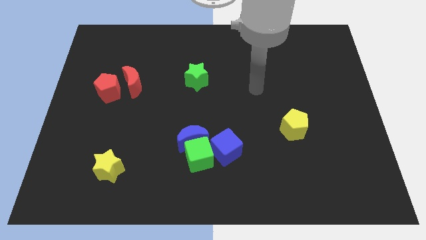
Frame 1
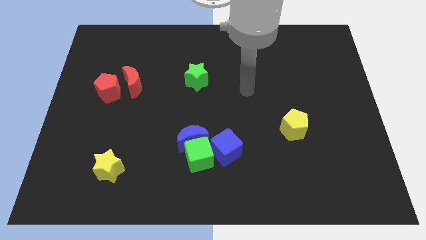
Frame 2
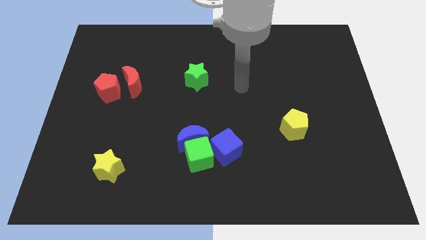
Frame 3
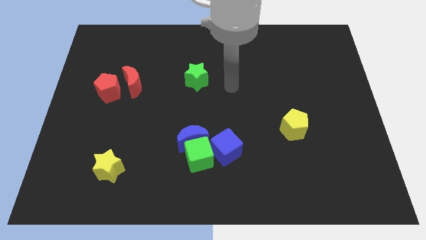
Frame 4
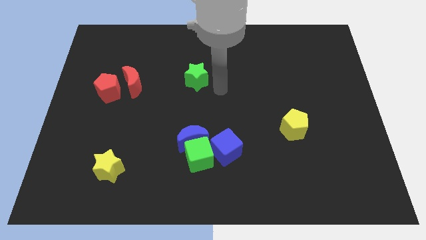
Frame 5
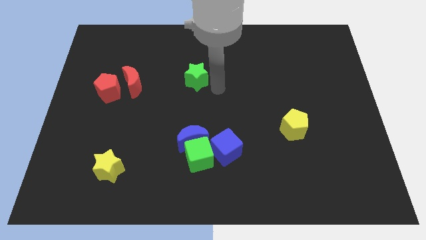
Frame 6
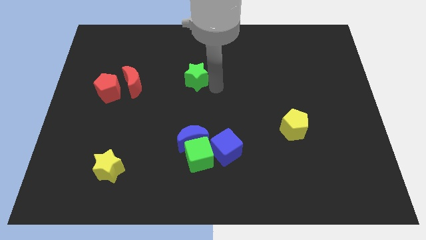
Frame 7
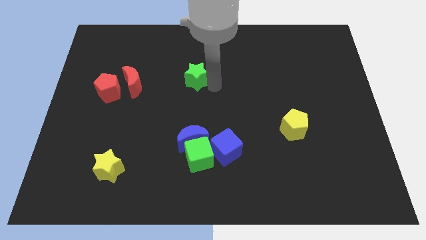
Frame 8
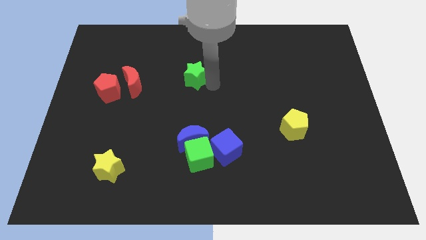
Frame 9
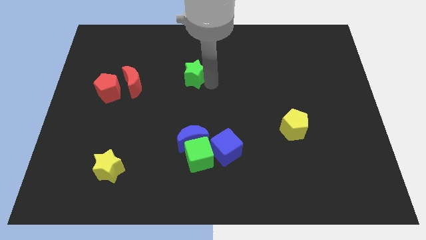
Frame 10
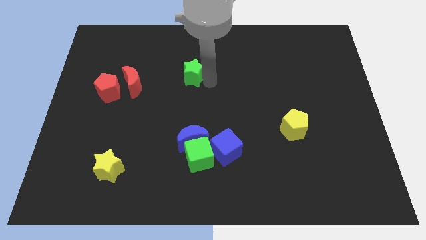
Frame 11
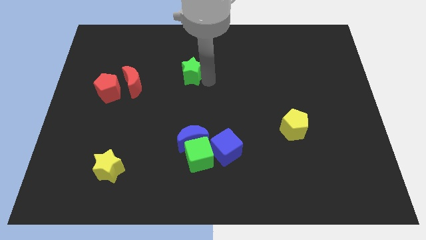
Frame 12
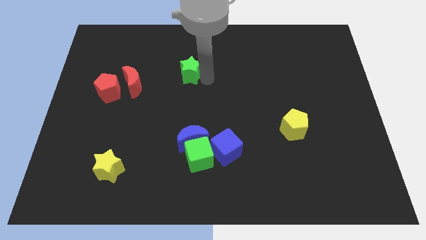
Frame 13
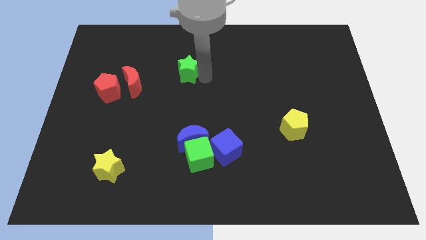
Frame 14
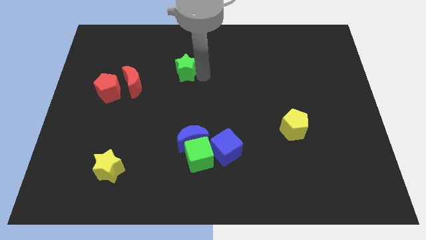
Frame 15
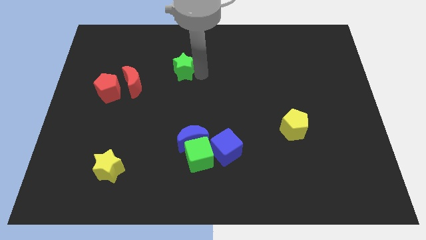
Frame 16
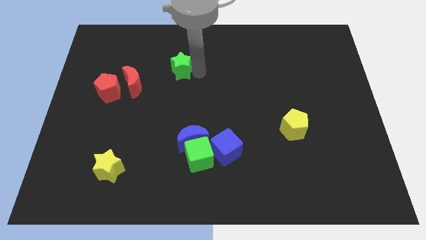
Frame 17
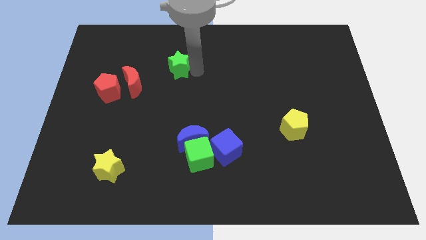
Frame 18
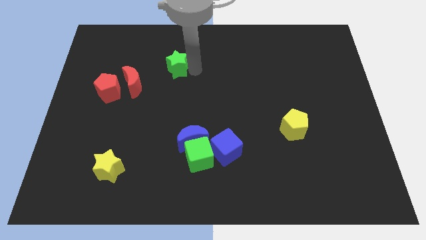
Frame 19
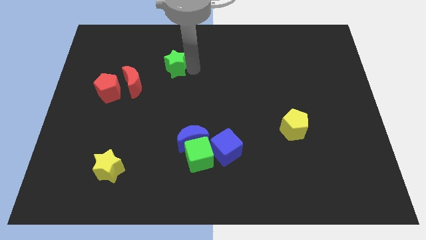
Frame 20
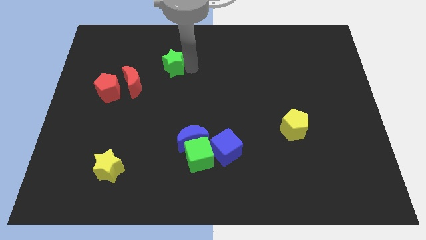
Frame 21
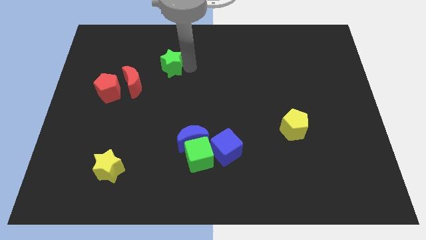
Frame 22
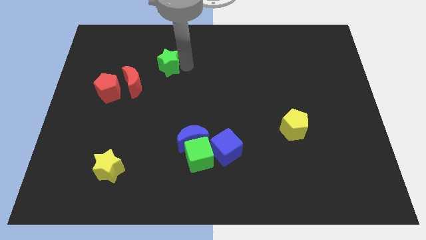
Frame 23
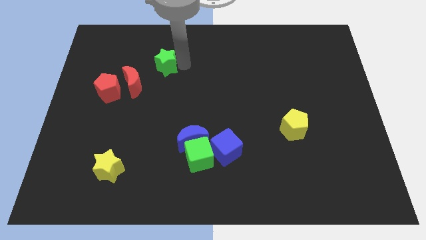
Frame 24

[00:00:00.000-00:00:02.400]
slightly move the green star left

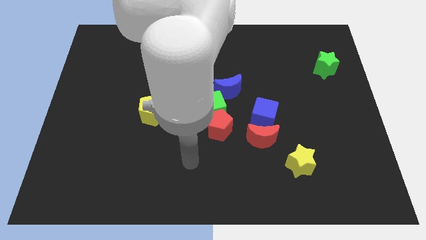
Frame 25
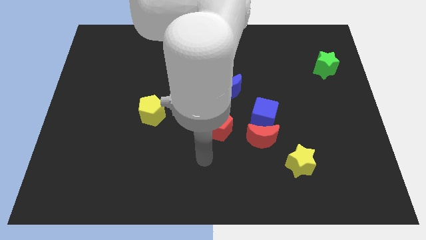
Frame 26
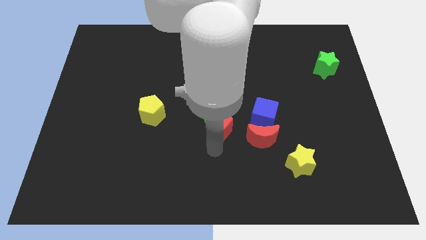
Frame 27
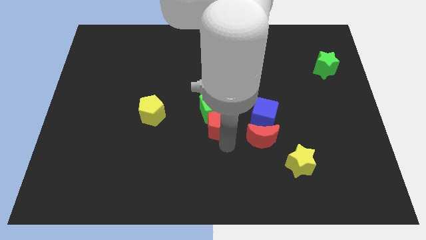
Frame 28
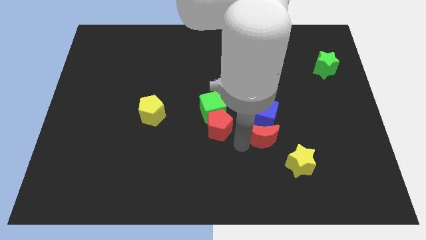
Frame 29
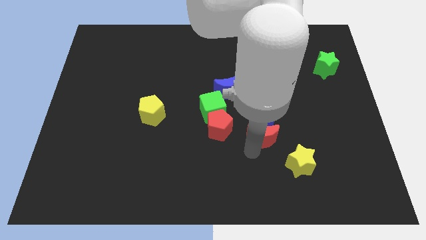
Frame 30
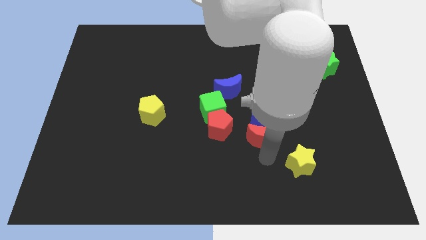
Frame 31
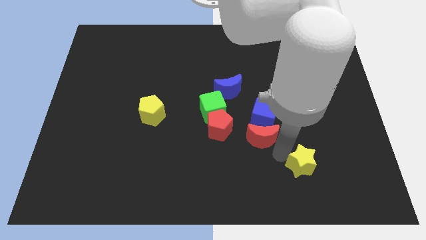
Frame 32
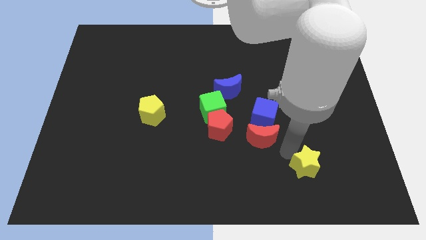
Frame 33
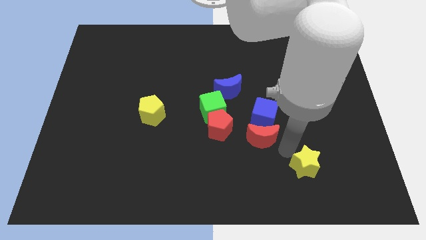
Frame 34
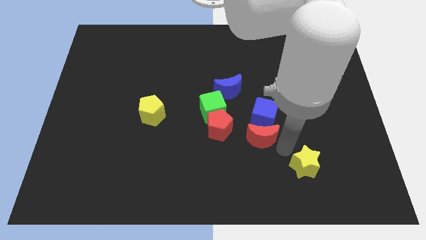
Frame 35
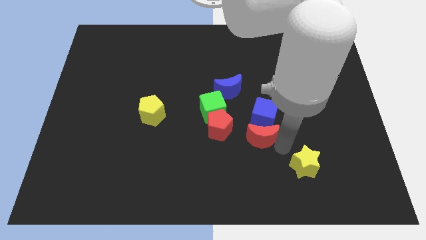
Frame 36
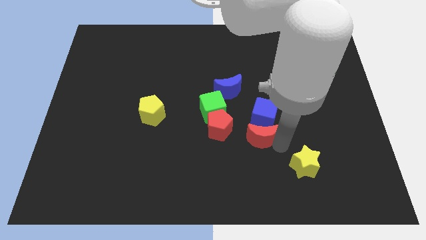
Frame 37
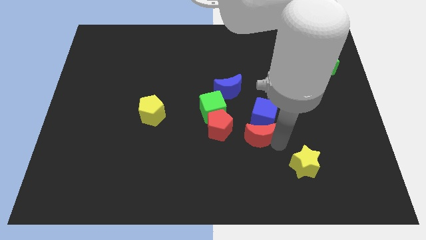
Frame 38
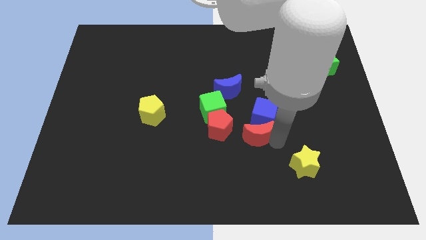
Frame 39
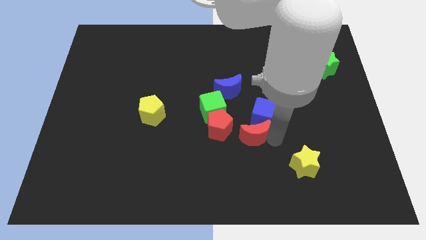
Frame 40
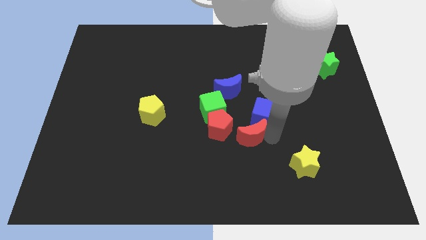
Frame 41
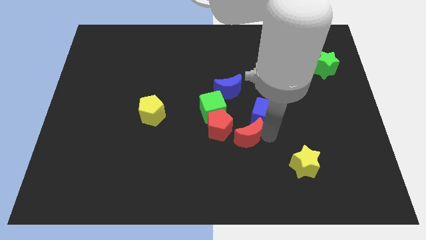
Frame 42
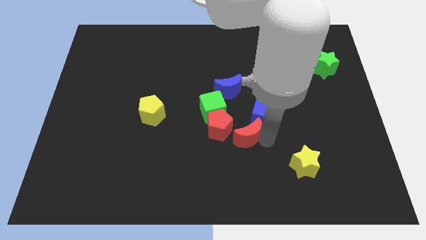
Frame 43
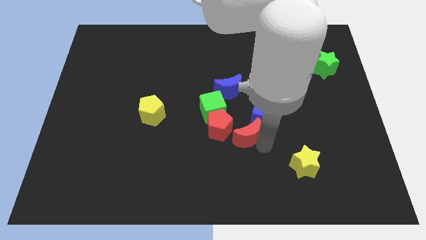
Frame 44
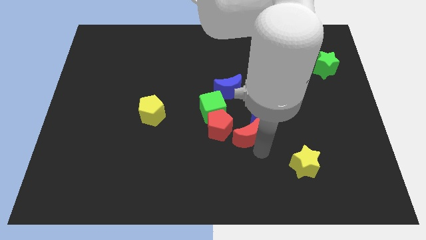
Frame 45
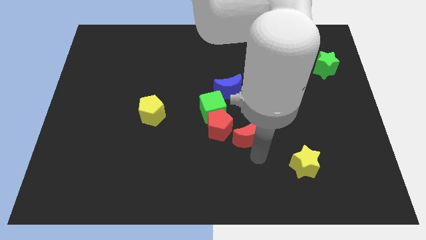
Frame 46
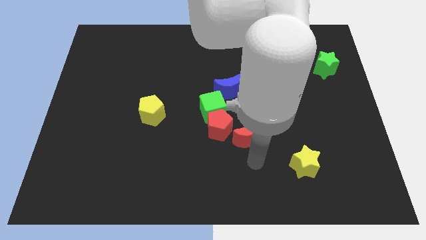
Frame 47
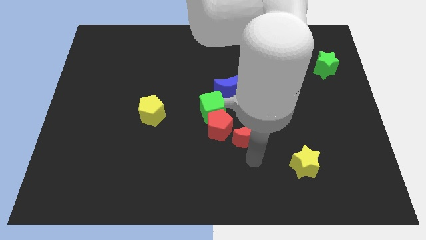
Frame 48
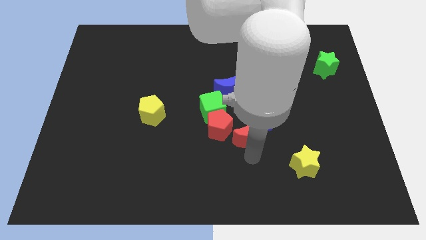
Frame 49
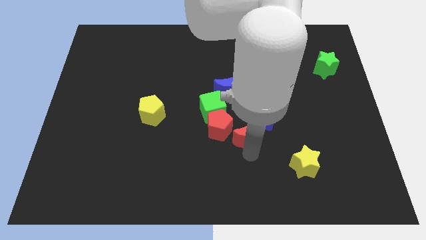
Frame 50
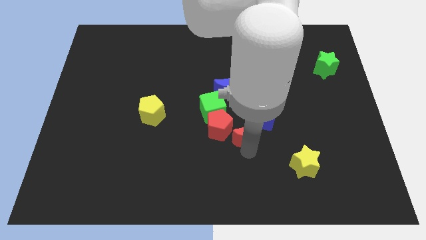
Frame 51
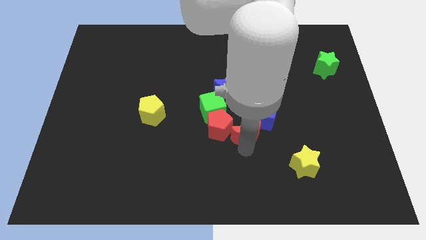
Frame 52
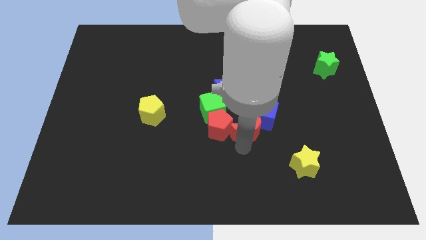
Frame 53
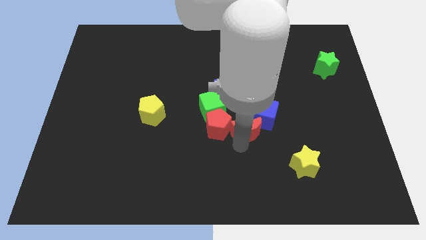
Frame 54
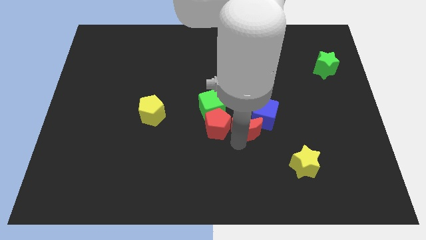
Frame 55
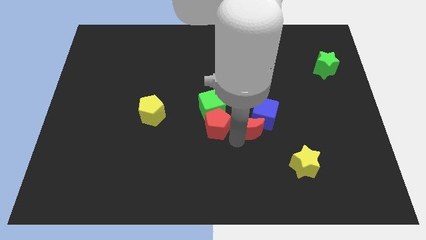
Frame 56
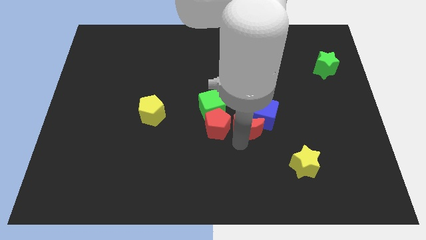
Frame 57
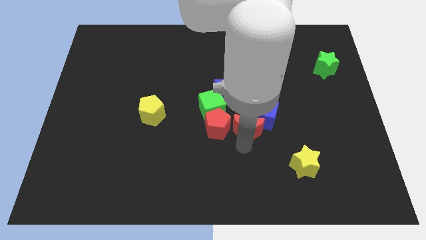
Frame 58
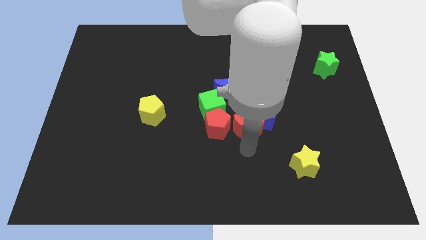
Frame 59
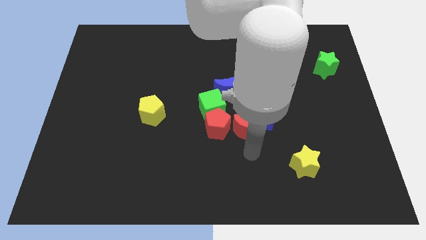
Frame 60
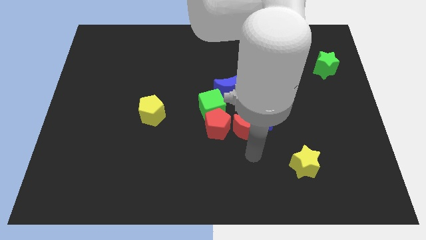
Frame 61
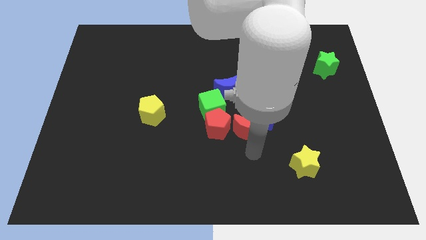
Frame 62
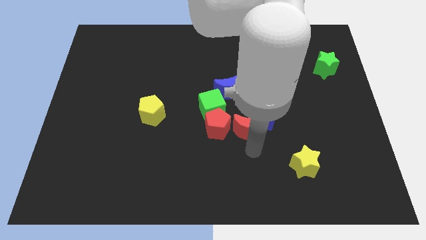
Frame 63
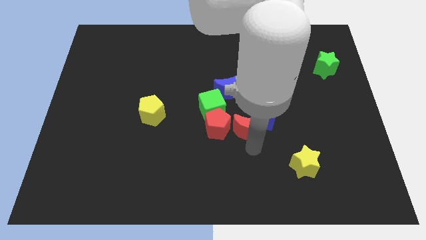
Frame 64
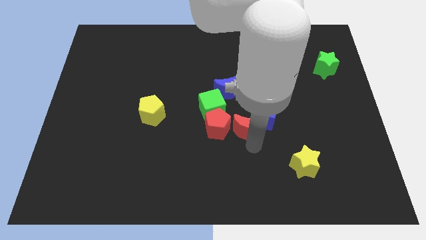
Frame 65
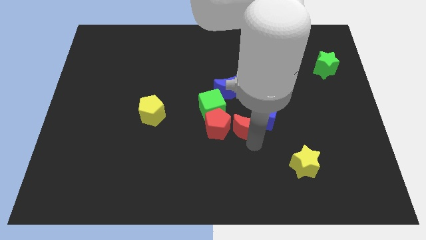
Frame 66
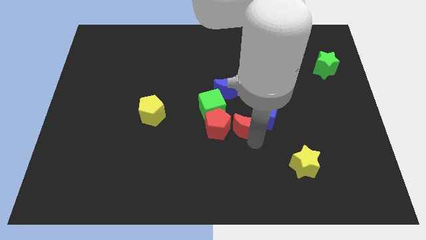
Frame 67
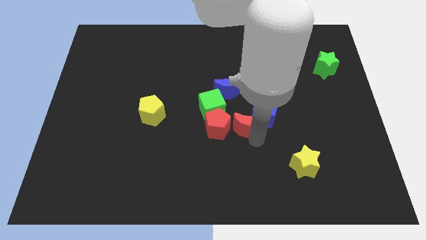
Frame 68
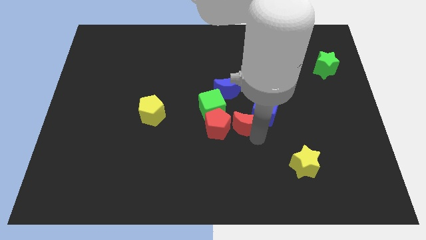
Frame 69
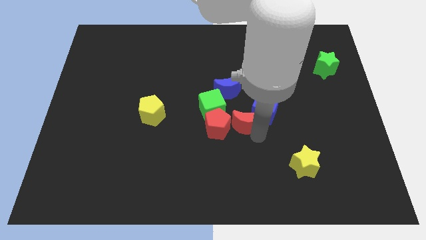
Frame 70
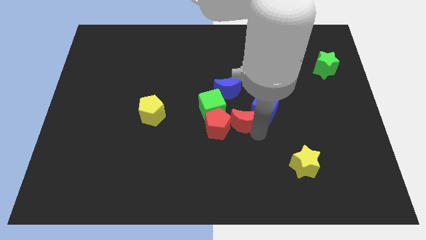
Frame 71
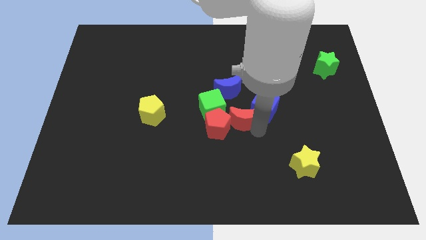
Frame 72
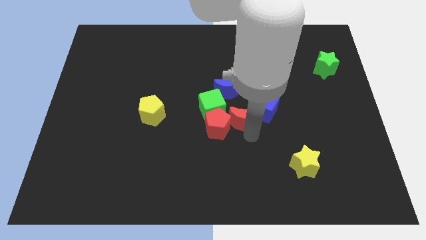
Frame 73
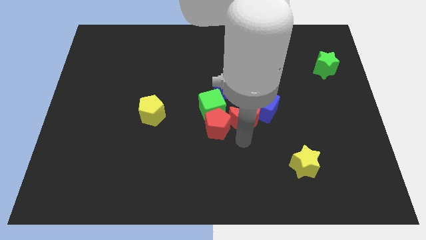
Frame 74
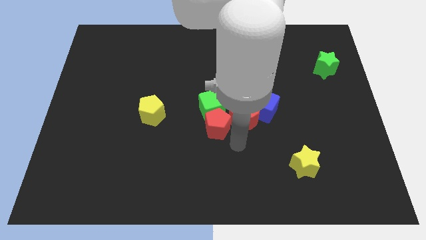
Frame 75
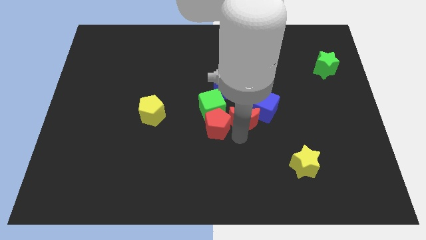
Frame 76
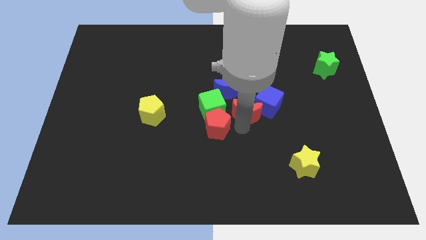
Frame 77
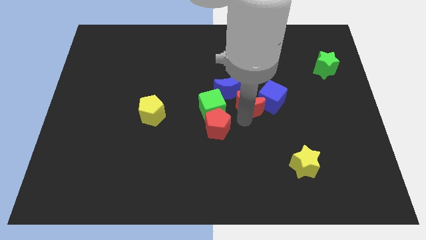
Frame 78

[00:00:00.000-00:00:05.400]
push the red moon somewhat upwards

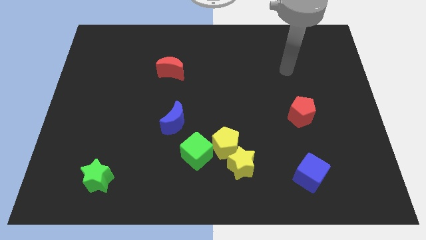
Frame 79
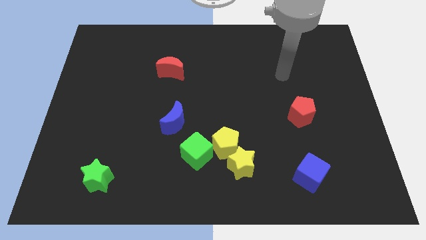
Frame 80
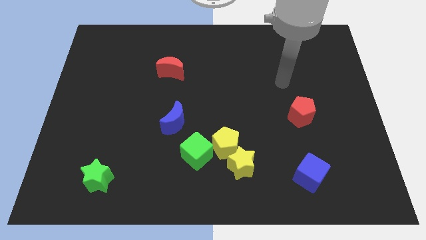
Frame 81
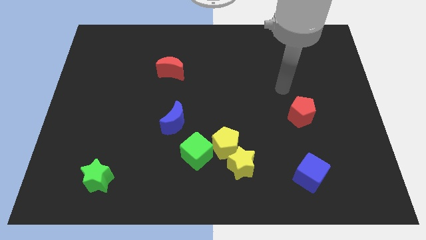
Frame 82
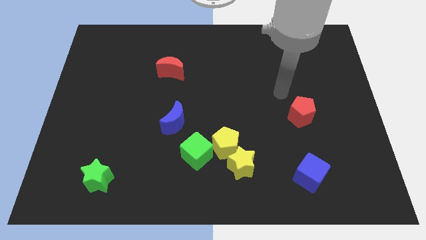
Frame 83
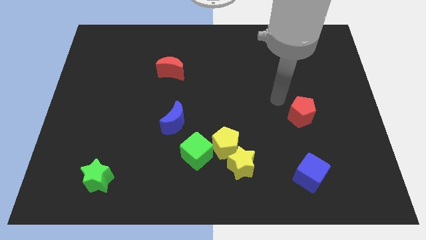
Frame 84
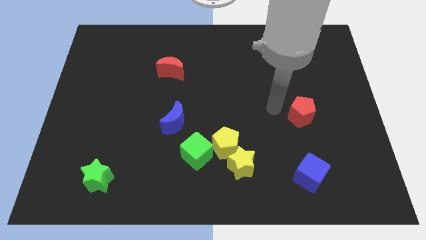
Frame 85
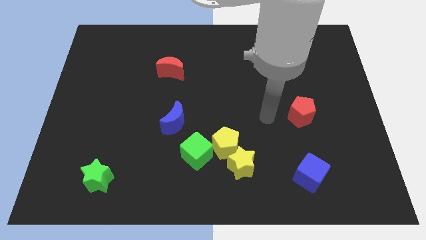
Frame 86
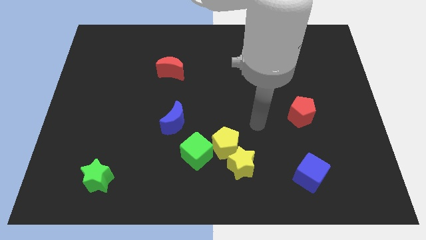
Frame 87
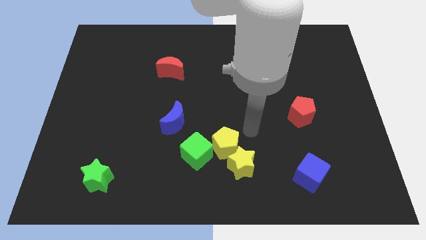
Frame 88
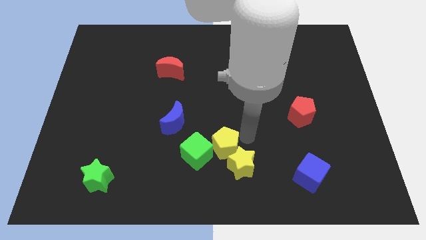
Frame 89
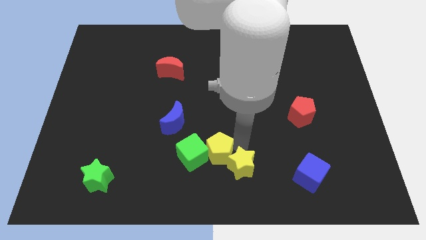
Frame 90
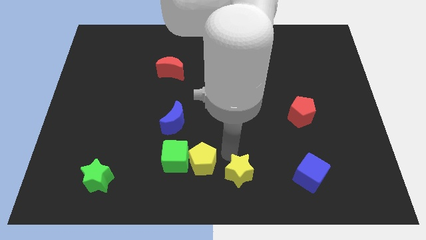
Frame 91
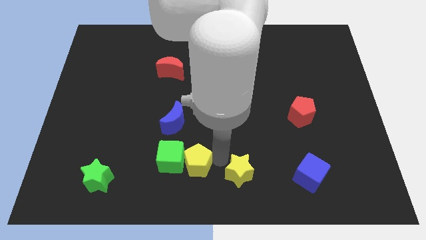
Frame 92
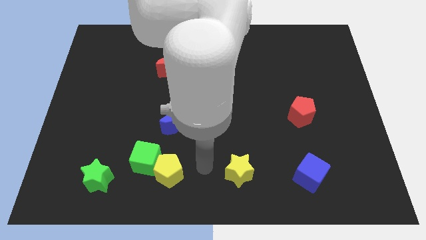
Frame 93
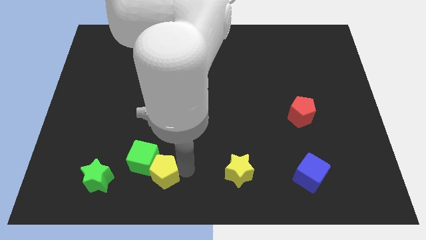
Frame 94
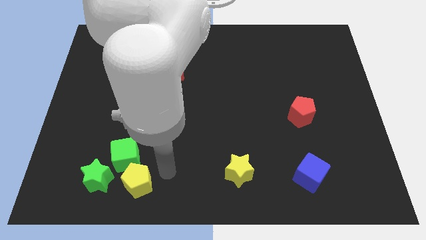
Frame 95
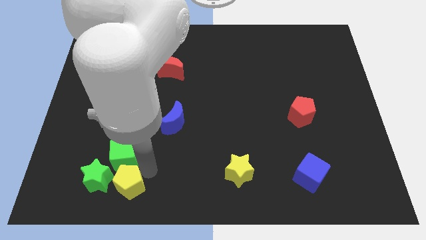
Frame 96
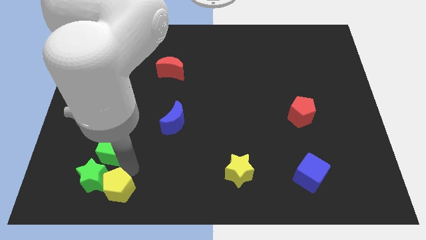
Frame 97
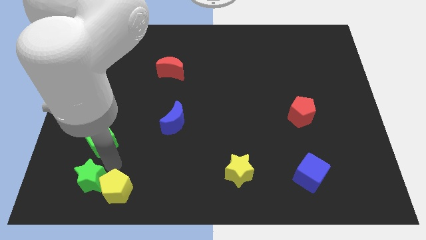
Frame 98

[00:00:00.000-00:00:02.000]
push the green cube upwards and left diagonally somewhat
